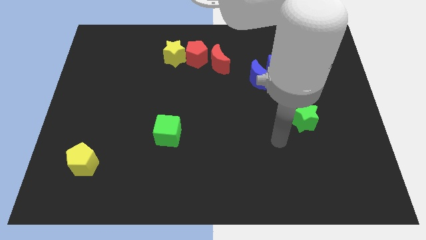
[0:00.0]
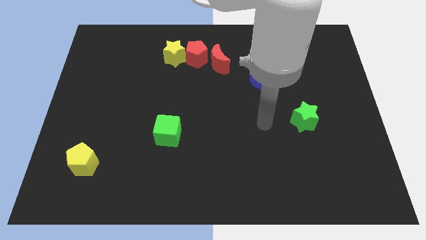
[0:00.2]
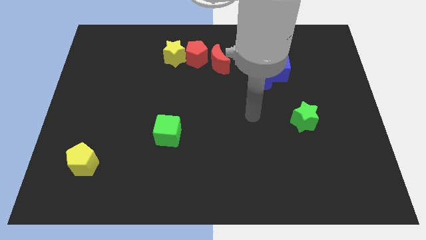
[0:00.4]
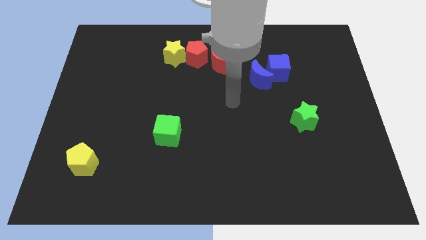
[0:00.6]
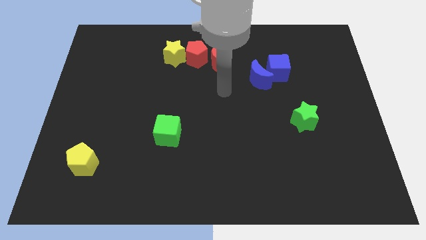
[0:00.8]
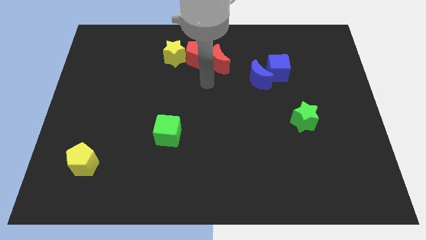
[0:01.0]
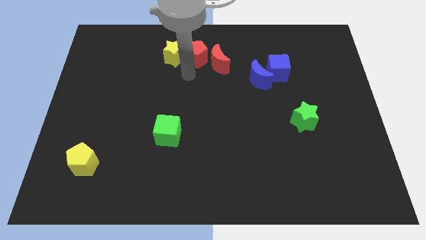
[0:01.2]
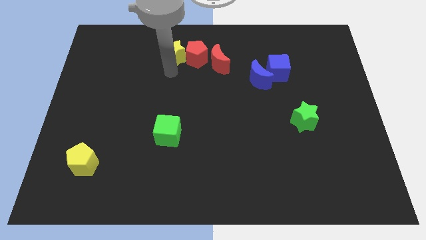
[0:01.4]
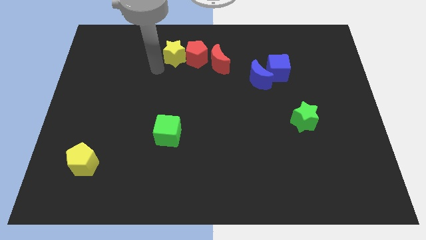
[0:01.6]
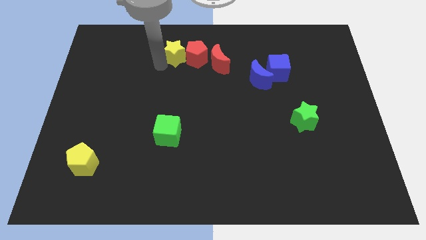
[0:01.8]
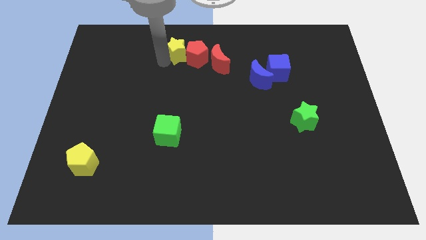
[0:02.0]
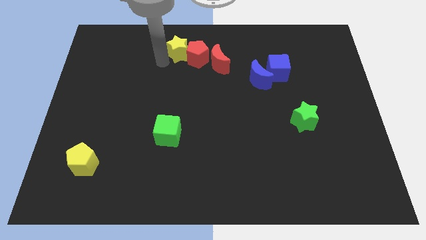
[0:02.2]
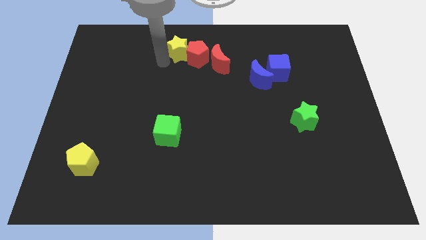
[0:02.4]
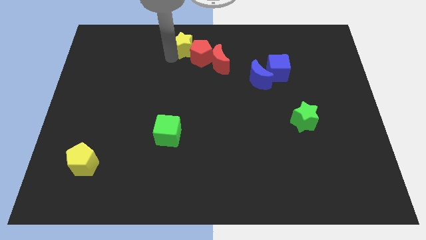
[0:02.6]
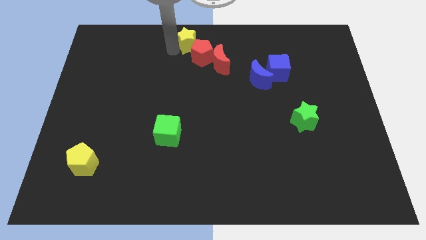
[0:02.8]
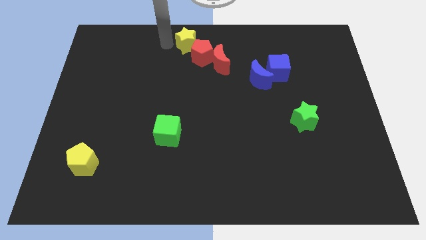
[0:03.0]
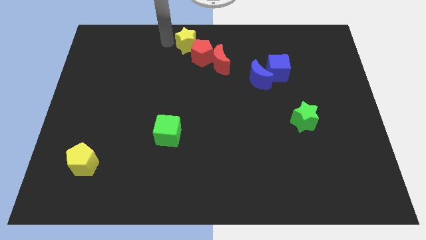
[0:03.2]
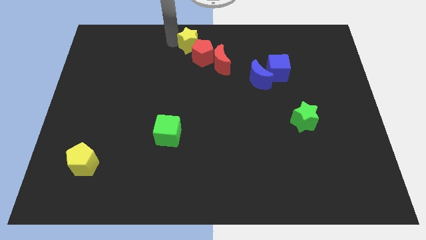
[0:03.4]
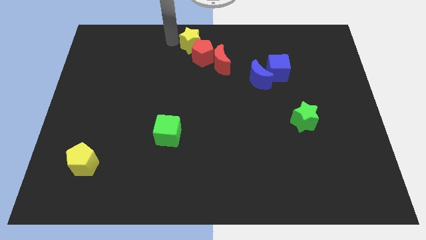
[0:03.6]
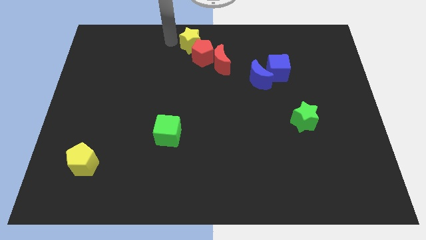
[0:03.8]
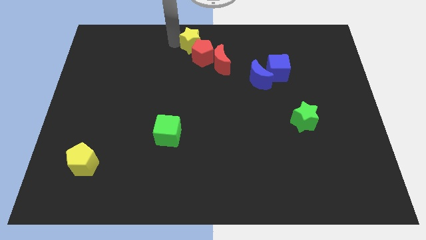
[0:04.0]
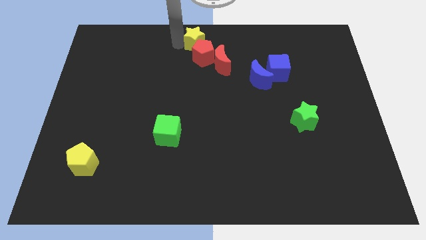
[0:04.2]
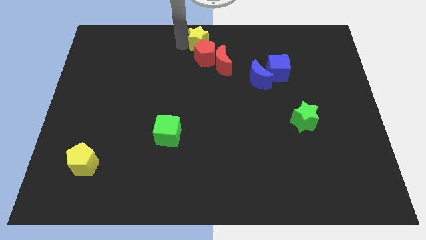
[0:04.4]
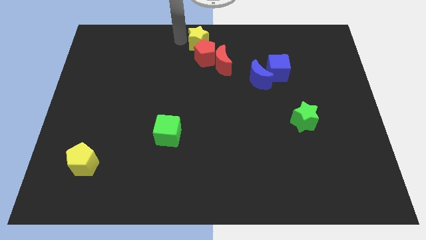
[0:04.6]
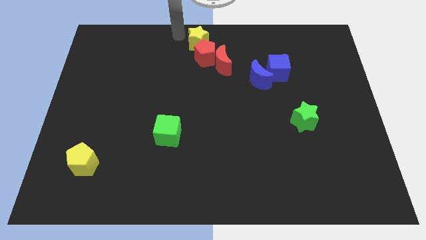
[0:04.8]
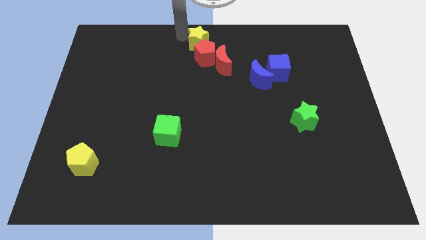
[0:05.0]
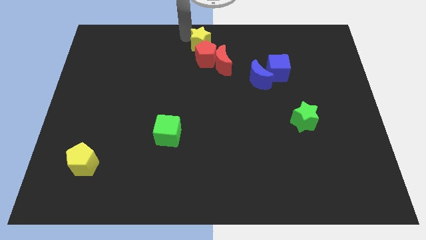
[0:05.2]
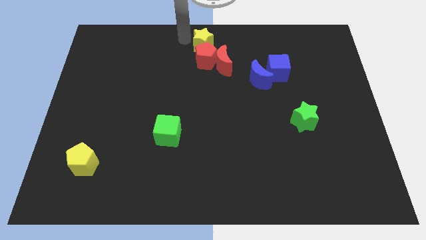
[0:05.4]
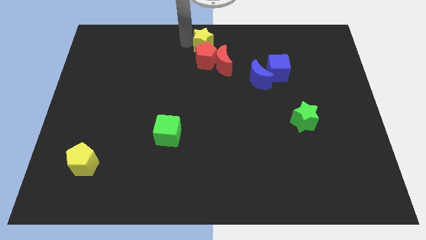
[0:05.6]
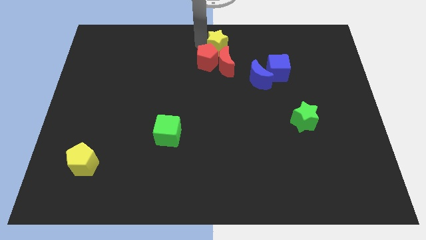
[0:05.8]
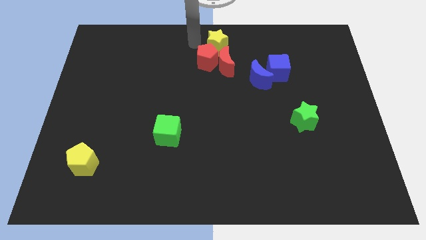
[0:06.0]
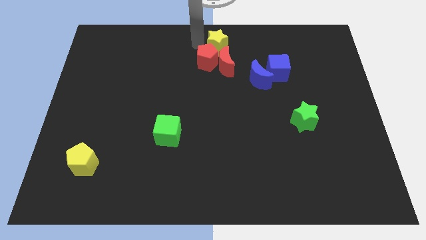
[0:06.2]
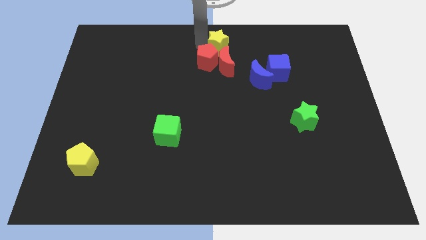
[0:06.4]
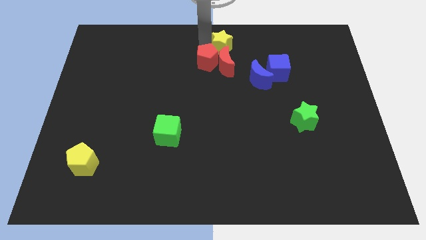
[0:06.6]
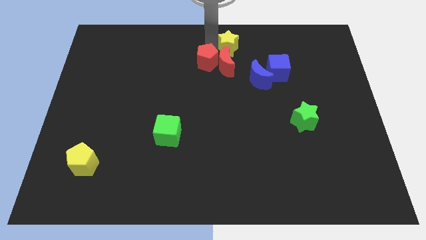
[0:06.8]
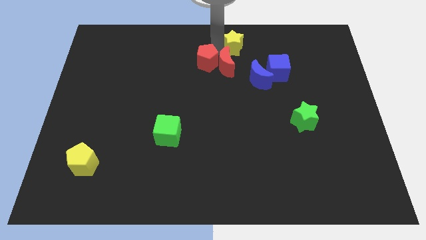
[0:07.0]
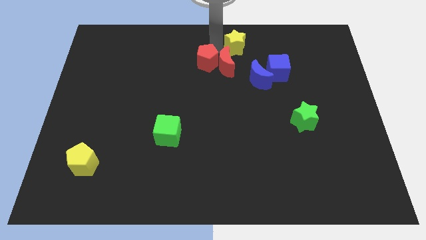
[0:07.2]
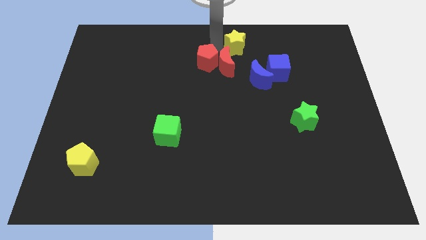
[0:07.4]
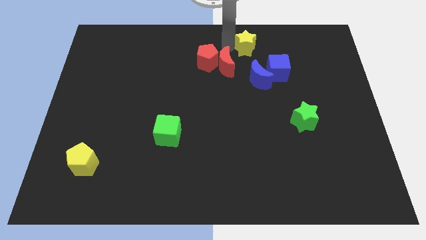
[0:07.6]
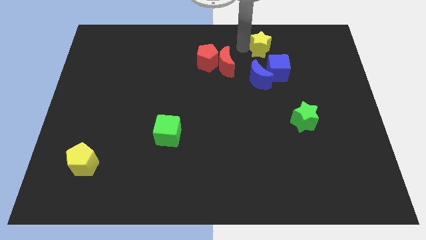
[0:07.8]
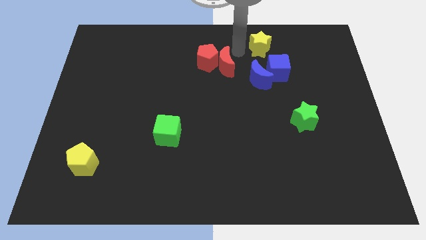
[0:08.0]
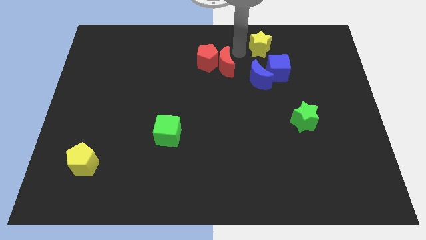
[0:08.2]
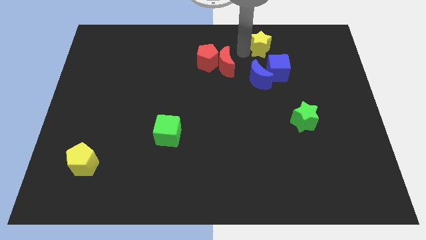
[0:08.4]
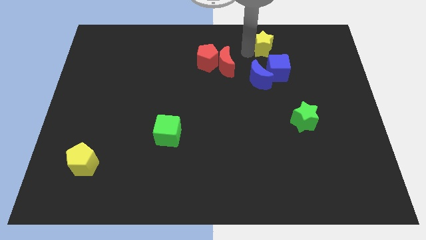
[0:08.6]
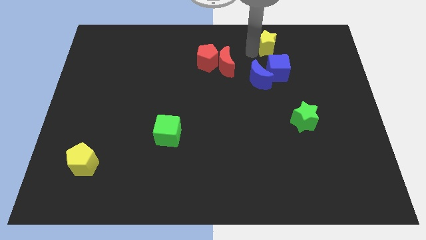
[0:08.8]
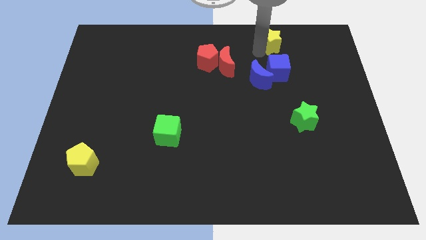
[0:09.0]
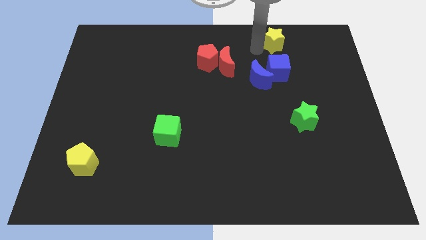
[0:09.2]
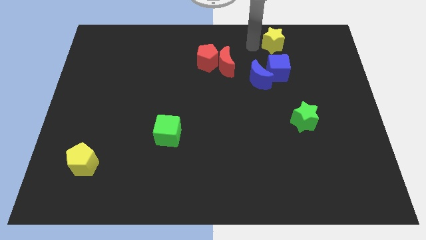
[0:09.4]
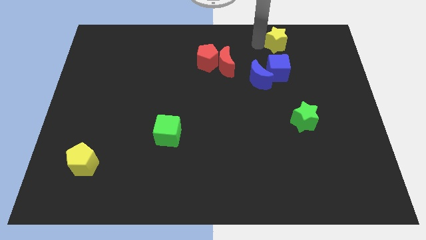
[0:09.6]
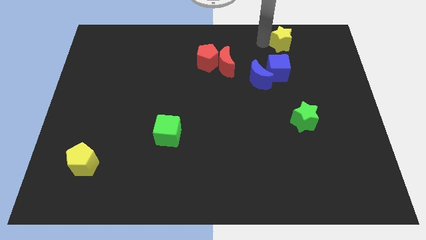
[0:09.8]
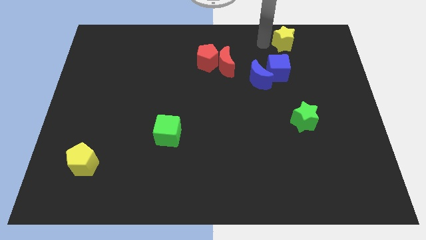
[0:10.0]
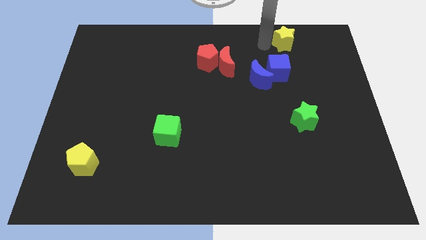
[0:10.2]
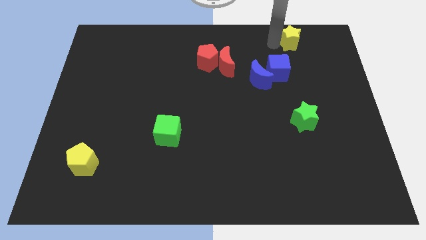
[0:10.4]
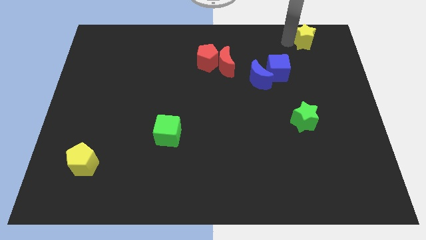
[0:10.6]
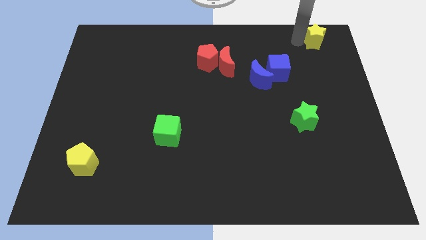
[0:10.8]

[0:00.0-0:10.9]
slide the yellow star to the upper right corner
